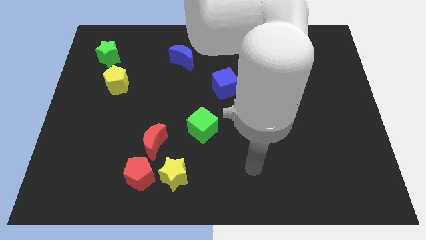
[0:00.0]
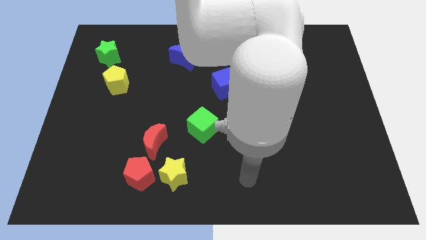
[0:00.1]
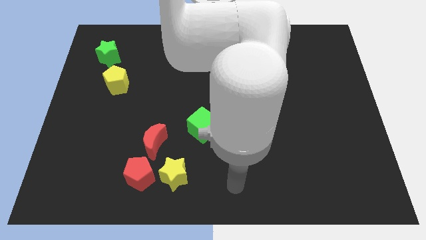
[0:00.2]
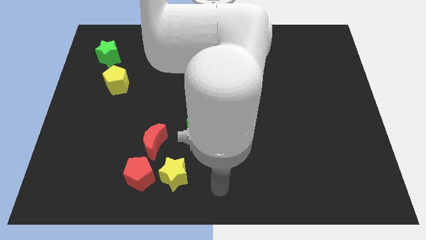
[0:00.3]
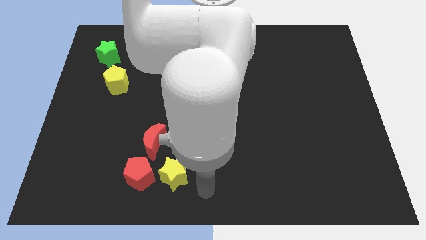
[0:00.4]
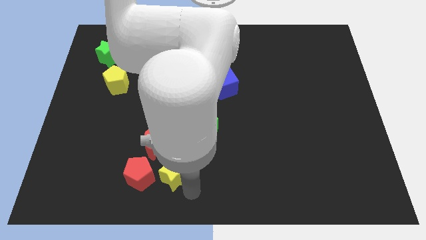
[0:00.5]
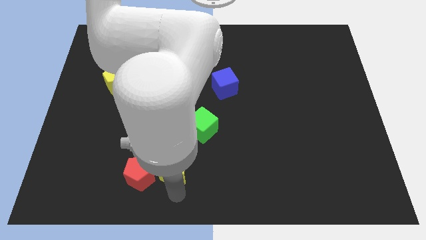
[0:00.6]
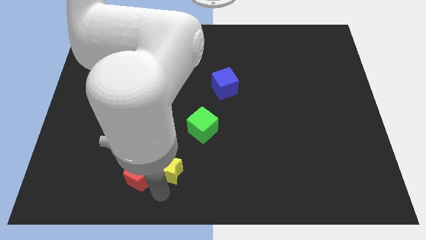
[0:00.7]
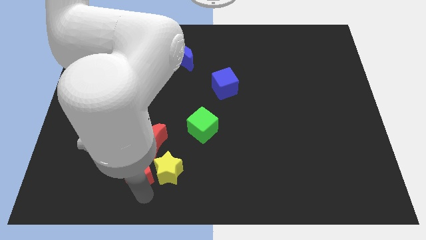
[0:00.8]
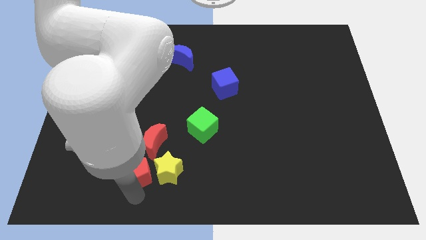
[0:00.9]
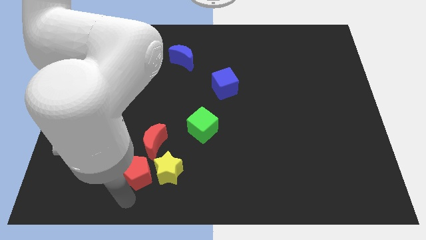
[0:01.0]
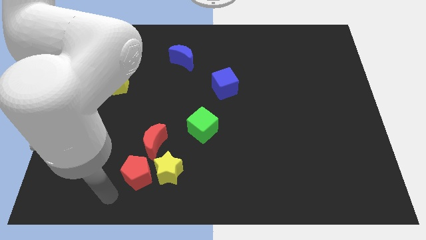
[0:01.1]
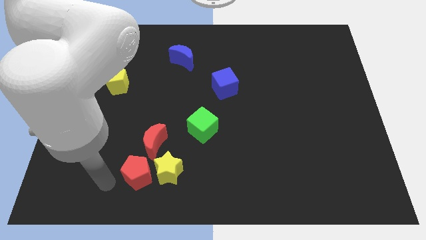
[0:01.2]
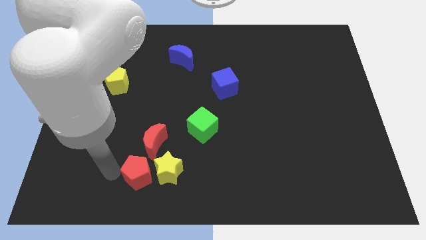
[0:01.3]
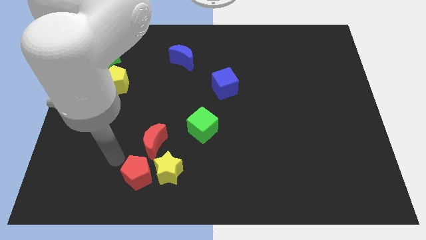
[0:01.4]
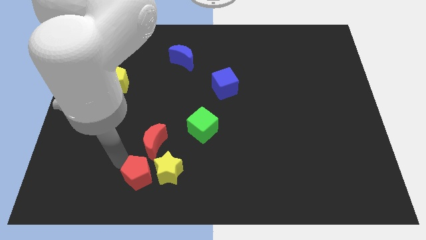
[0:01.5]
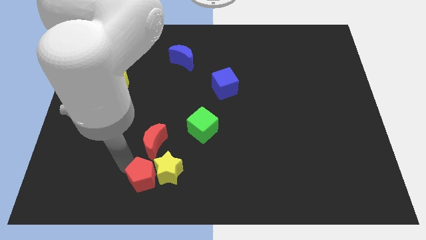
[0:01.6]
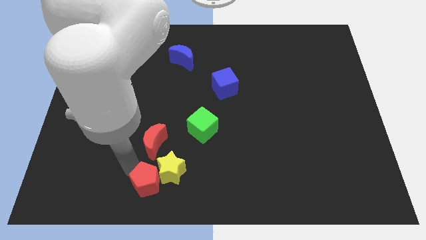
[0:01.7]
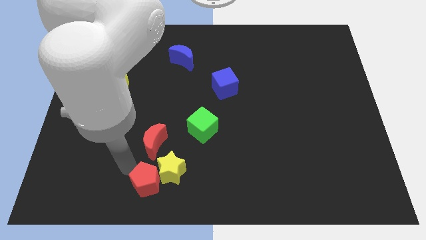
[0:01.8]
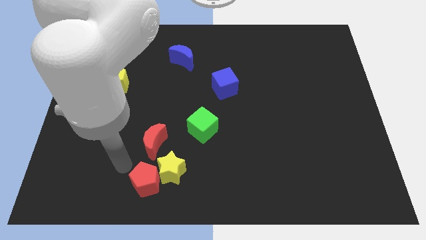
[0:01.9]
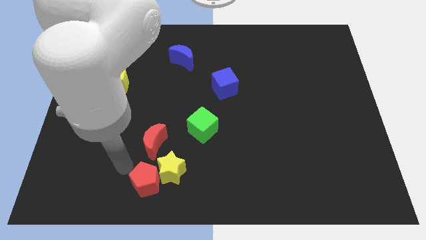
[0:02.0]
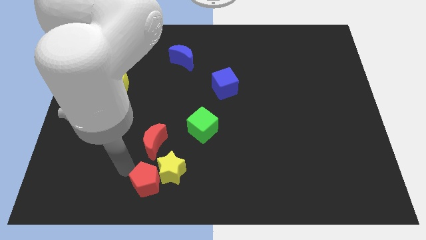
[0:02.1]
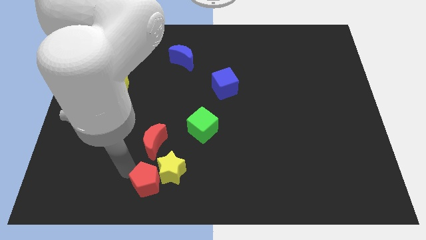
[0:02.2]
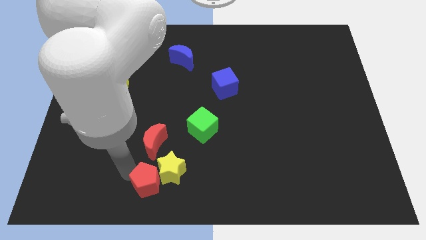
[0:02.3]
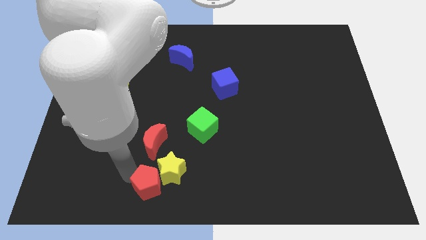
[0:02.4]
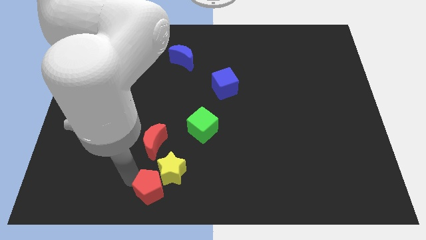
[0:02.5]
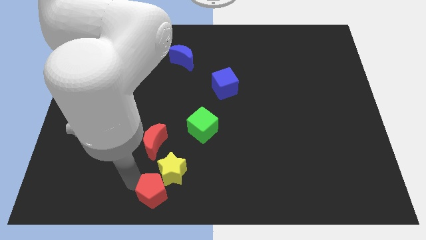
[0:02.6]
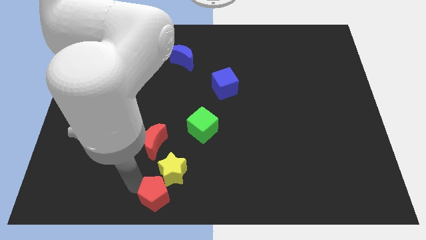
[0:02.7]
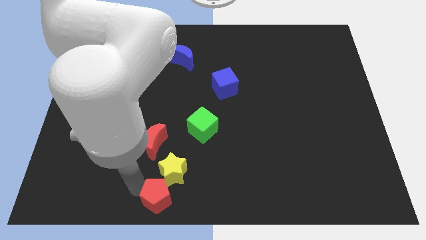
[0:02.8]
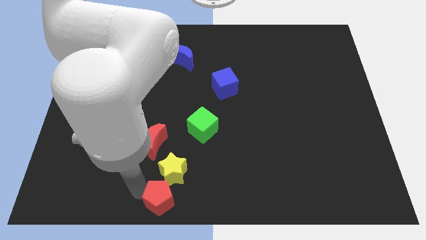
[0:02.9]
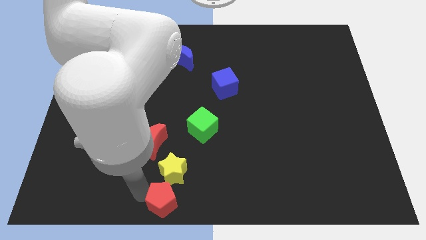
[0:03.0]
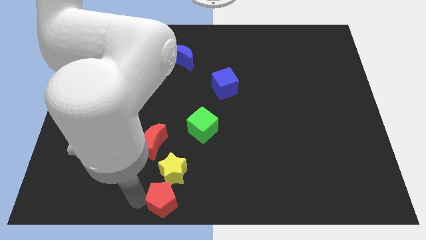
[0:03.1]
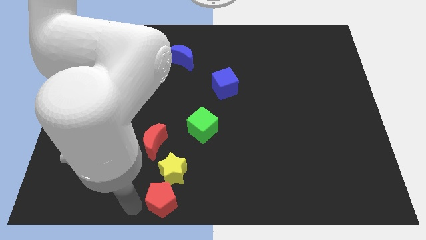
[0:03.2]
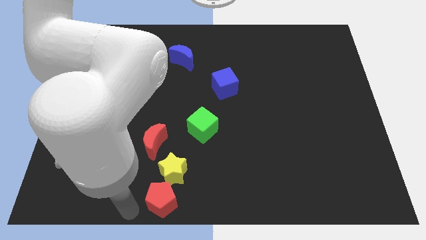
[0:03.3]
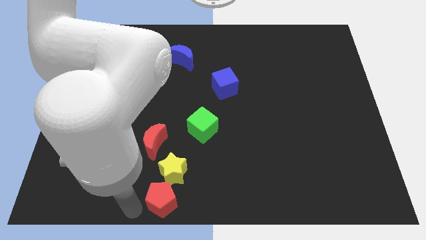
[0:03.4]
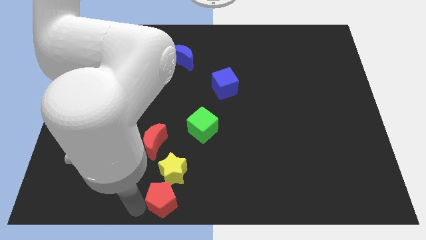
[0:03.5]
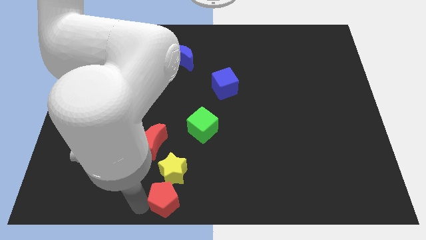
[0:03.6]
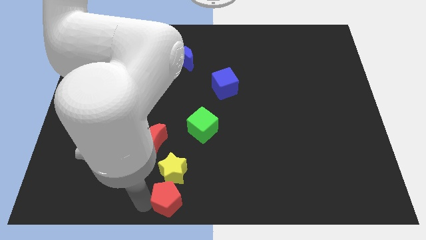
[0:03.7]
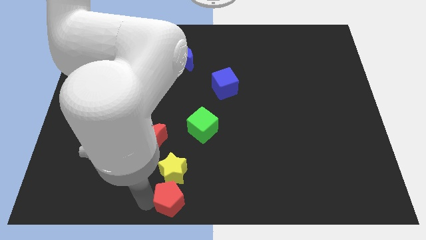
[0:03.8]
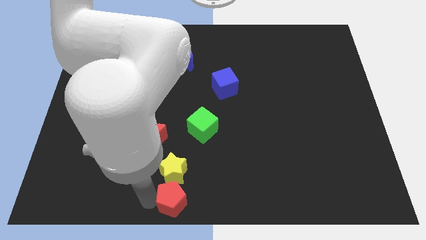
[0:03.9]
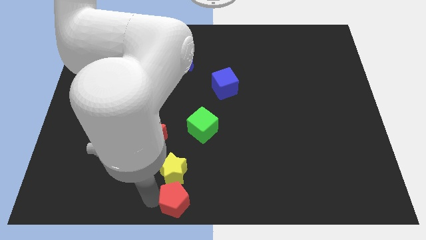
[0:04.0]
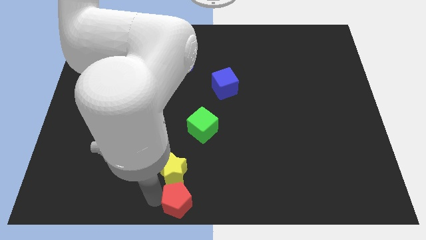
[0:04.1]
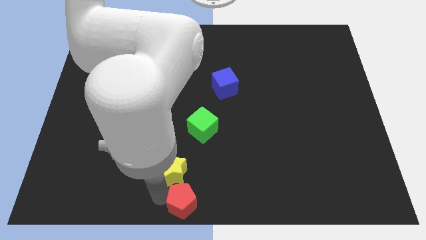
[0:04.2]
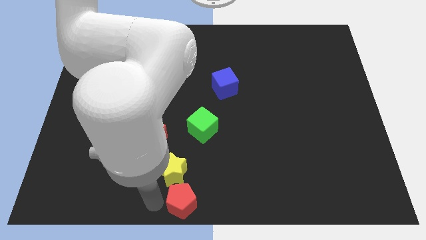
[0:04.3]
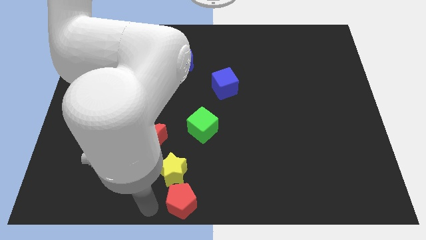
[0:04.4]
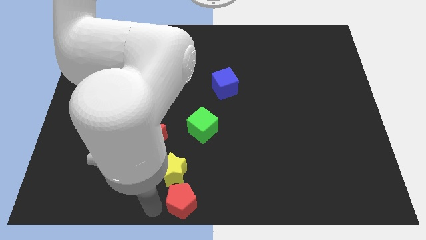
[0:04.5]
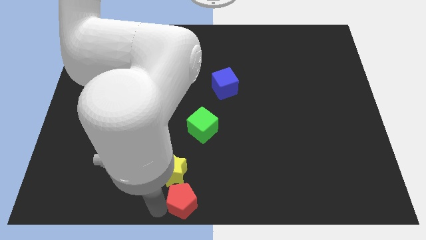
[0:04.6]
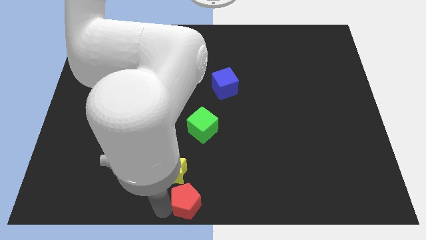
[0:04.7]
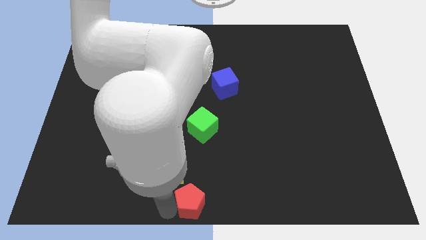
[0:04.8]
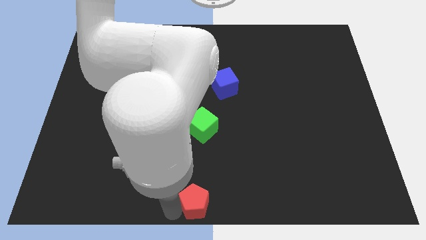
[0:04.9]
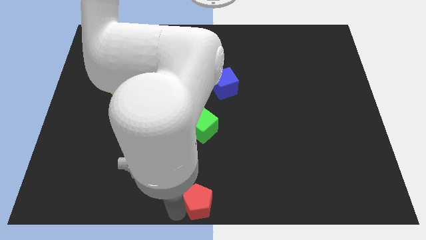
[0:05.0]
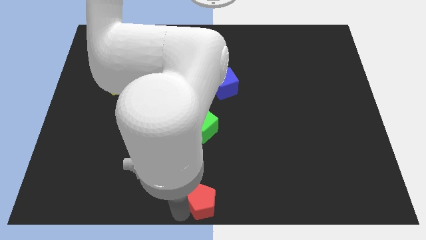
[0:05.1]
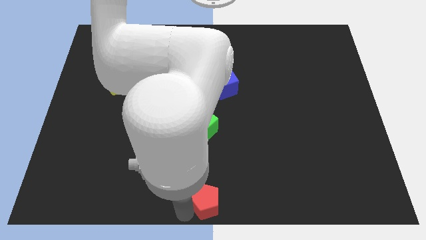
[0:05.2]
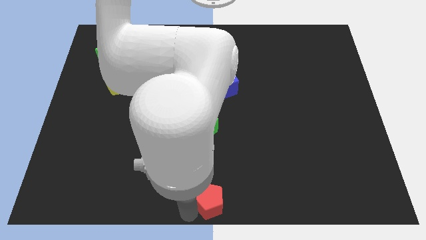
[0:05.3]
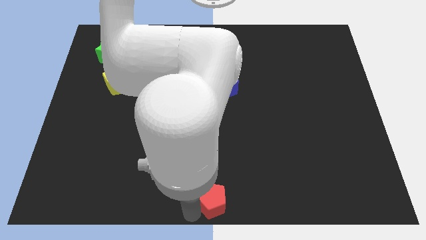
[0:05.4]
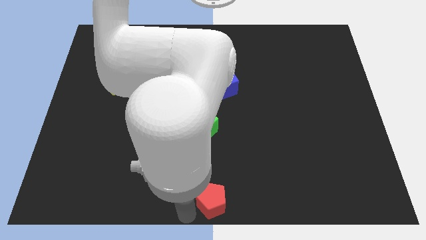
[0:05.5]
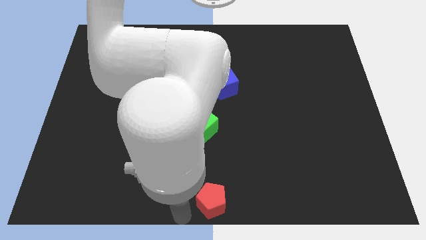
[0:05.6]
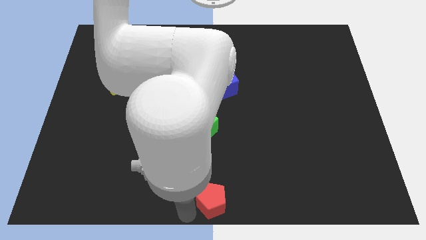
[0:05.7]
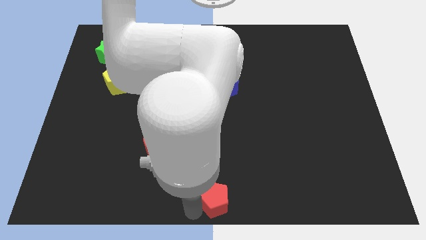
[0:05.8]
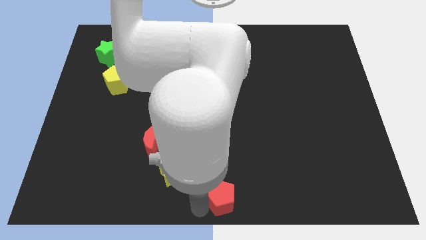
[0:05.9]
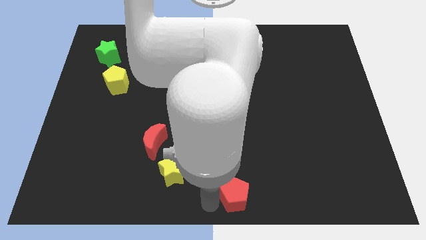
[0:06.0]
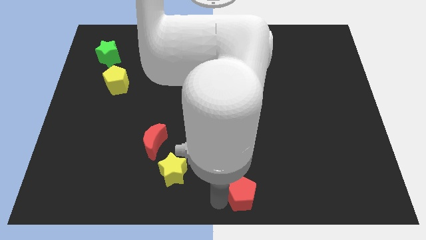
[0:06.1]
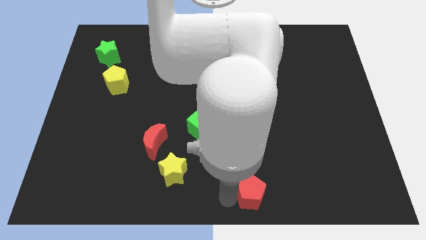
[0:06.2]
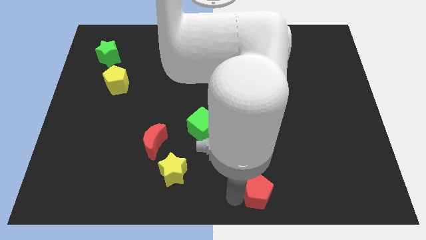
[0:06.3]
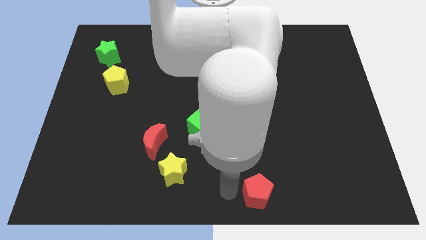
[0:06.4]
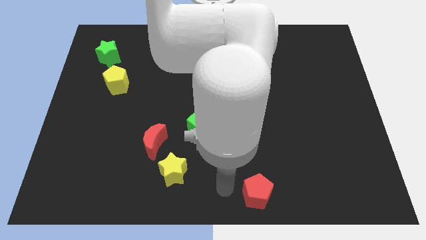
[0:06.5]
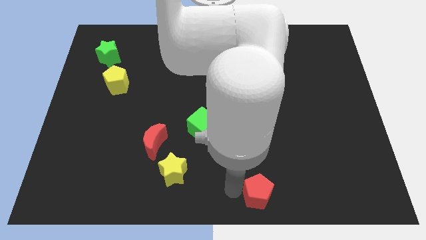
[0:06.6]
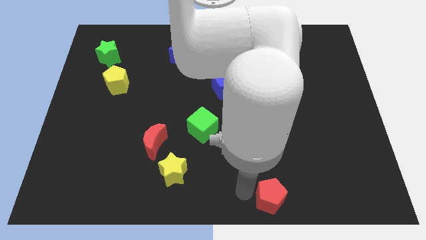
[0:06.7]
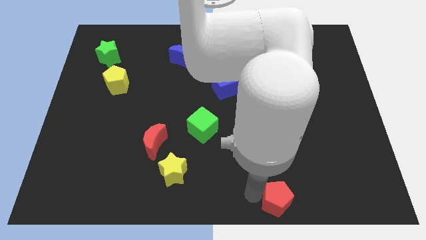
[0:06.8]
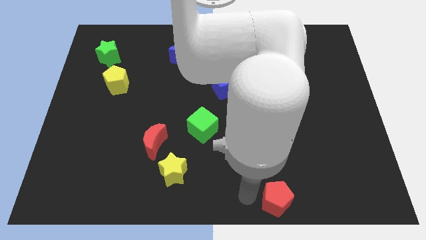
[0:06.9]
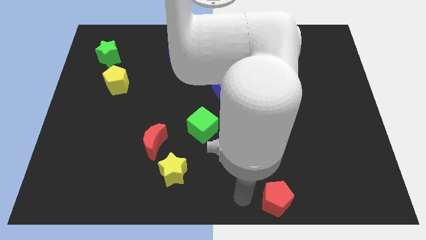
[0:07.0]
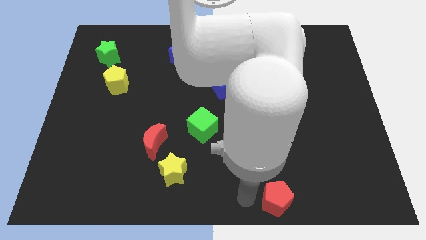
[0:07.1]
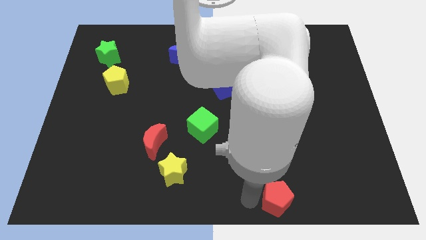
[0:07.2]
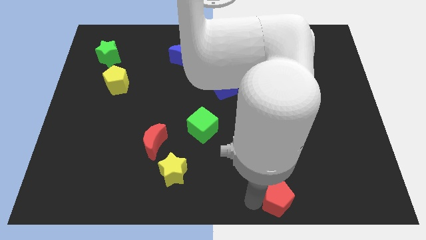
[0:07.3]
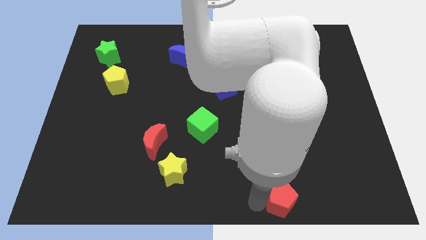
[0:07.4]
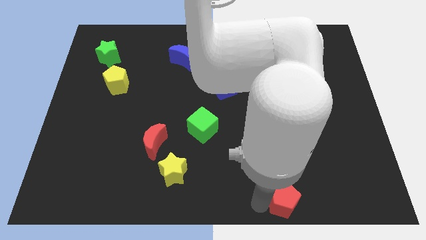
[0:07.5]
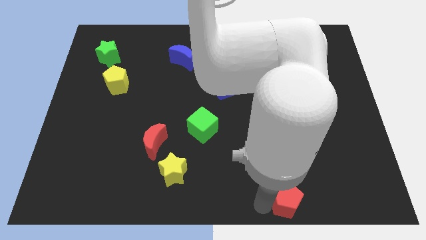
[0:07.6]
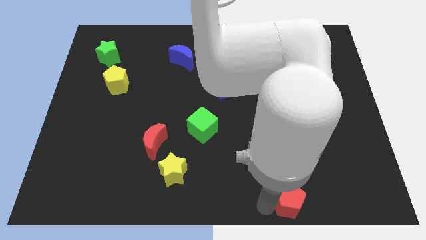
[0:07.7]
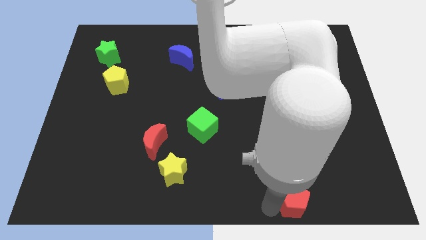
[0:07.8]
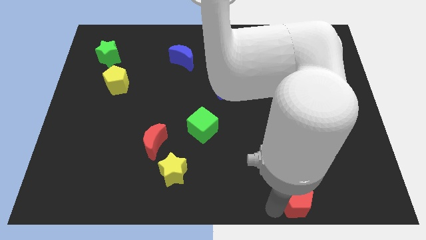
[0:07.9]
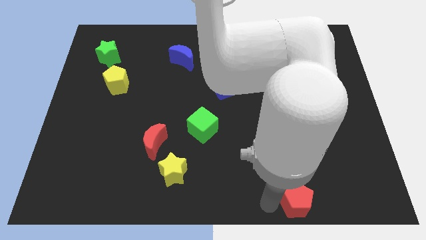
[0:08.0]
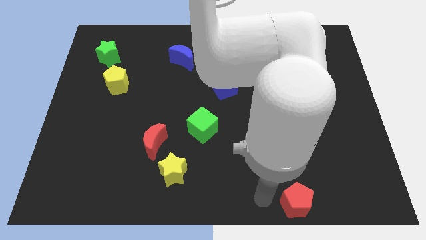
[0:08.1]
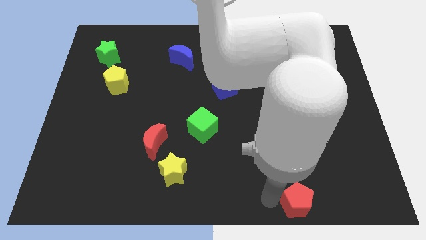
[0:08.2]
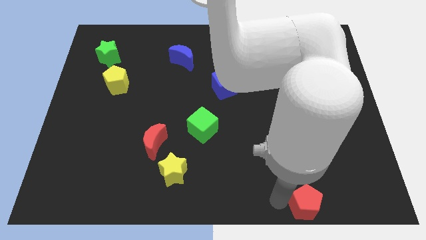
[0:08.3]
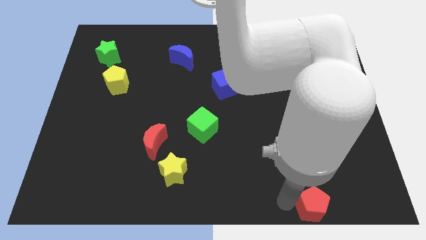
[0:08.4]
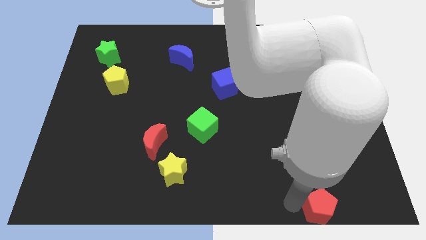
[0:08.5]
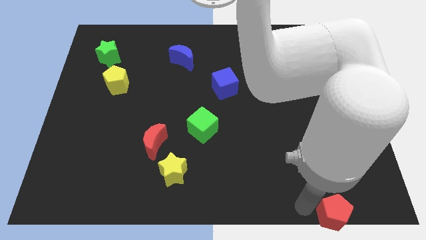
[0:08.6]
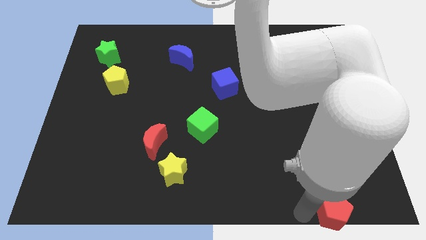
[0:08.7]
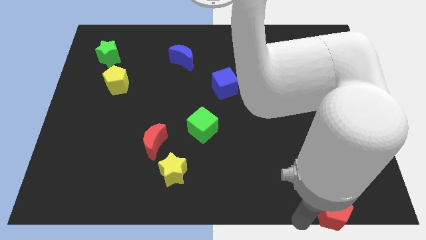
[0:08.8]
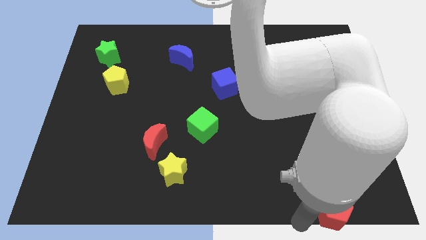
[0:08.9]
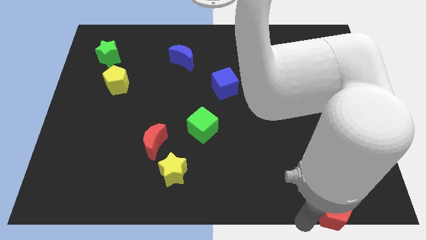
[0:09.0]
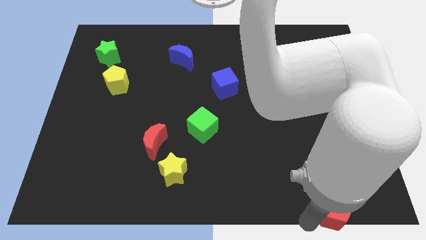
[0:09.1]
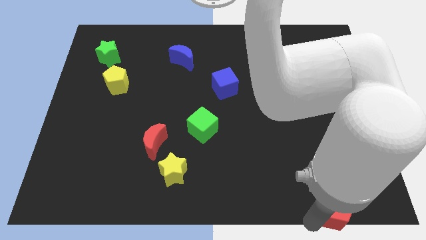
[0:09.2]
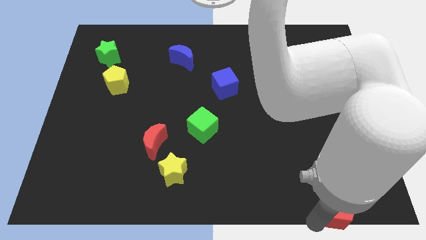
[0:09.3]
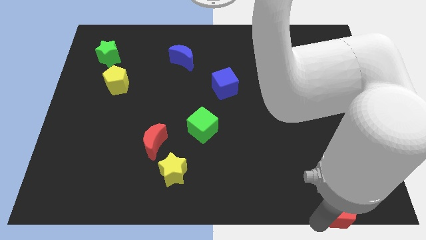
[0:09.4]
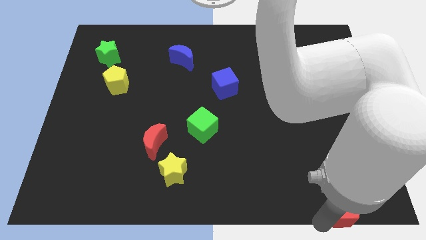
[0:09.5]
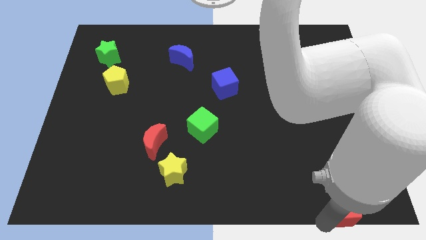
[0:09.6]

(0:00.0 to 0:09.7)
slide the red pentagon to the bottom right corner
